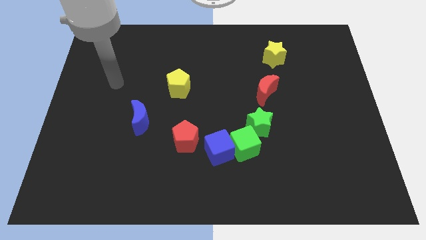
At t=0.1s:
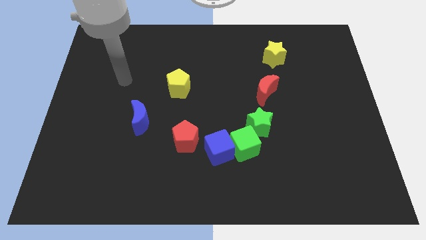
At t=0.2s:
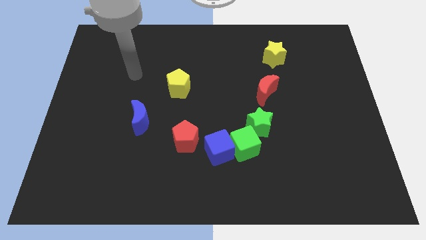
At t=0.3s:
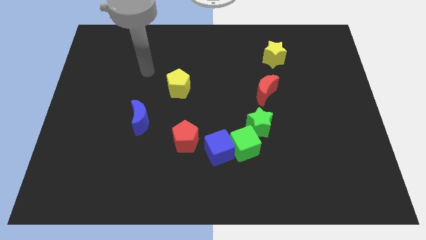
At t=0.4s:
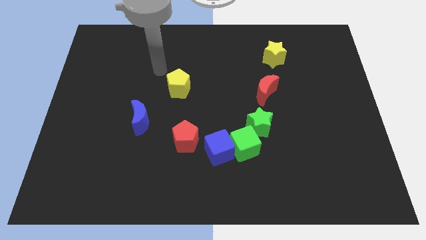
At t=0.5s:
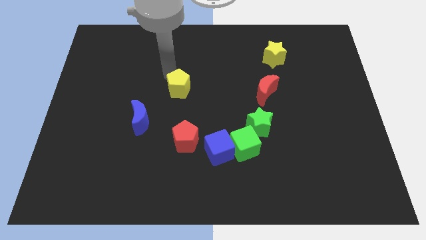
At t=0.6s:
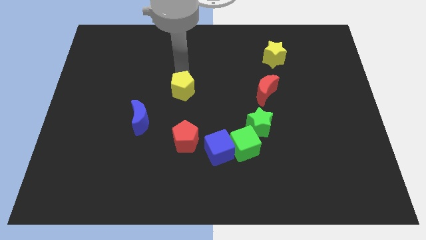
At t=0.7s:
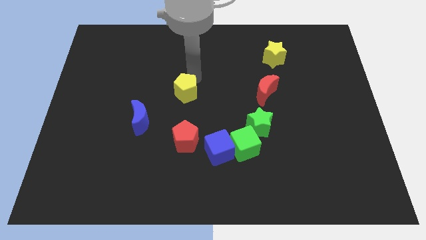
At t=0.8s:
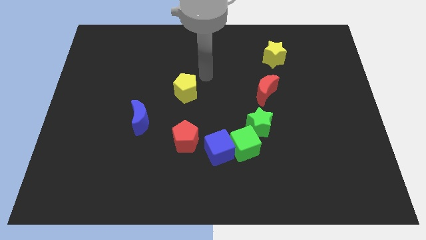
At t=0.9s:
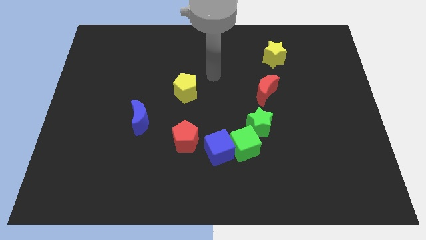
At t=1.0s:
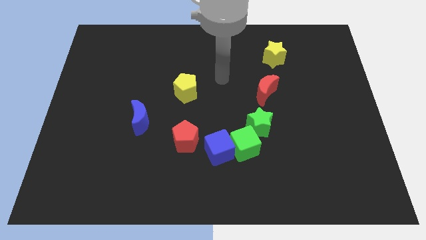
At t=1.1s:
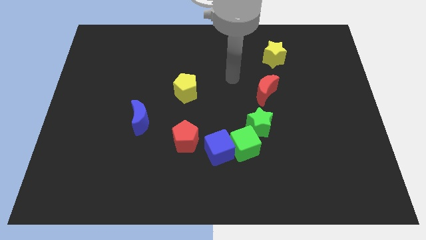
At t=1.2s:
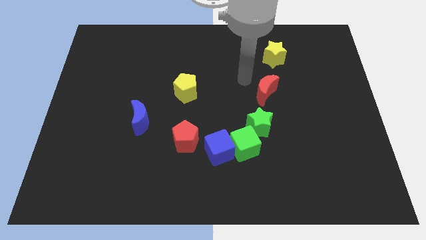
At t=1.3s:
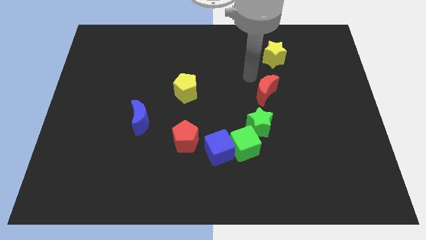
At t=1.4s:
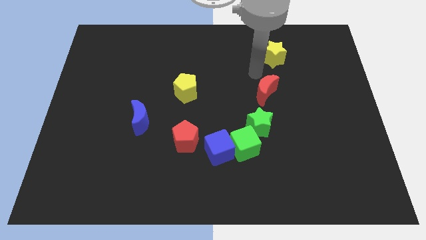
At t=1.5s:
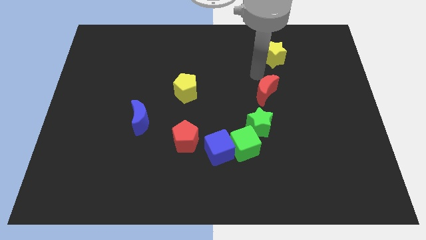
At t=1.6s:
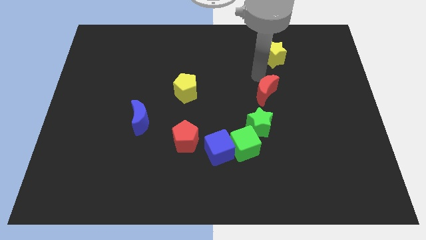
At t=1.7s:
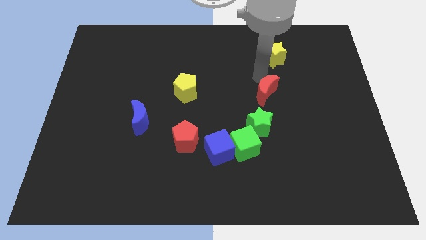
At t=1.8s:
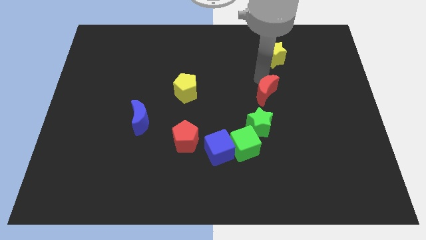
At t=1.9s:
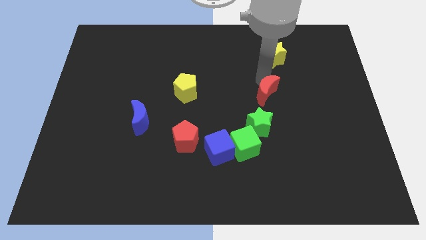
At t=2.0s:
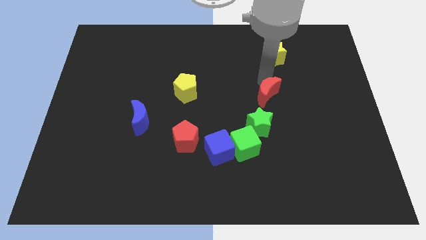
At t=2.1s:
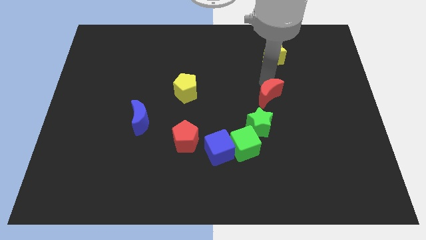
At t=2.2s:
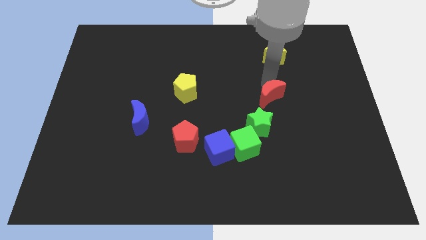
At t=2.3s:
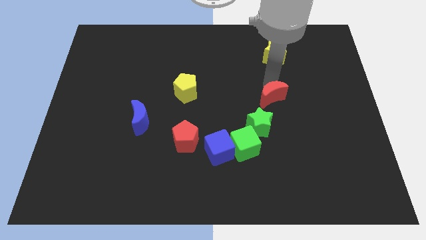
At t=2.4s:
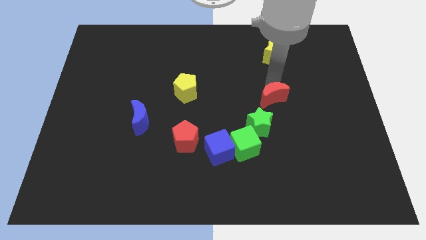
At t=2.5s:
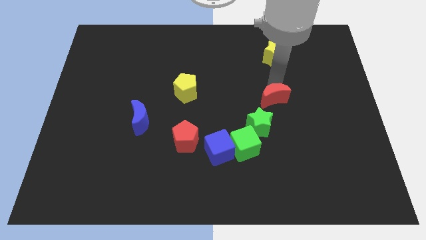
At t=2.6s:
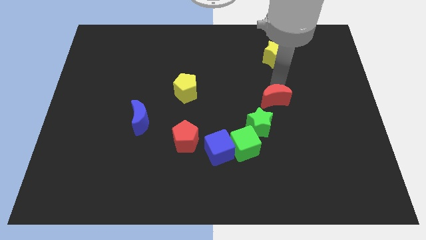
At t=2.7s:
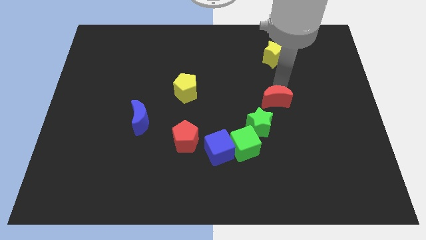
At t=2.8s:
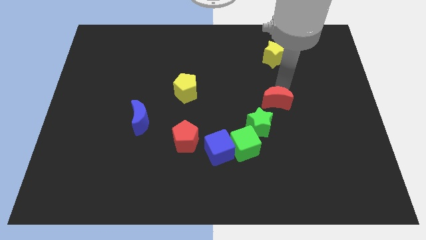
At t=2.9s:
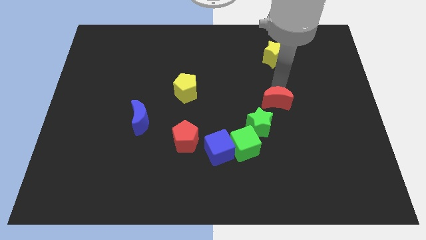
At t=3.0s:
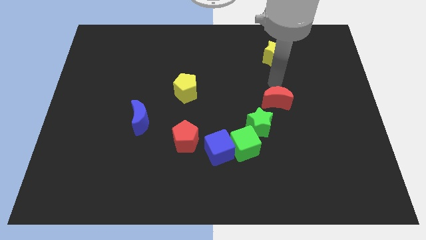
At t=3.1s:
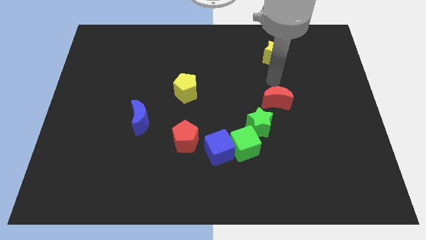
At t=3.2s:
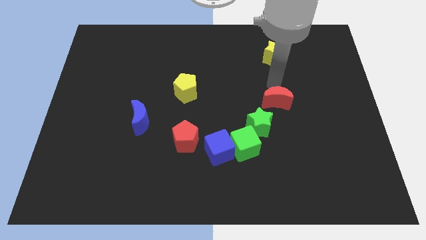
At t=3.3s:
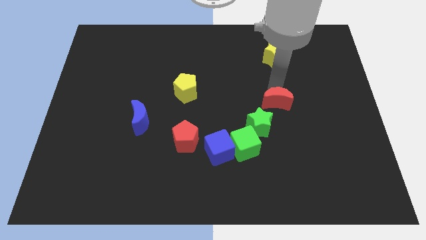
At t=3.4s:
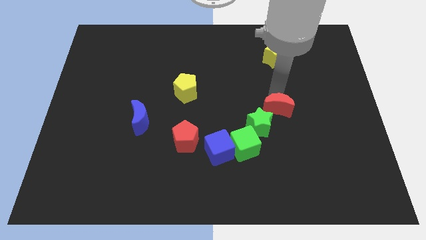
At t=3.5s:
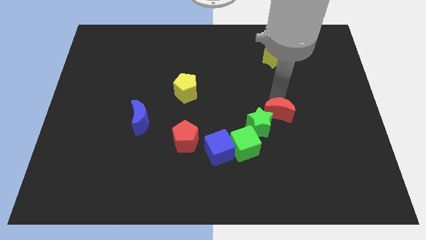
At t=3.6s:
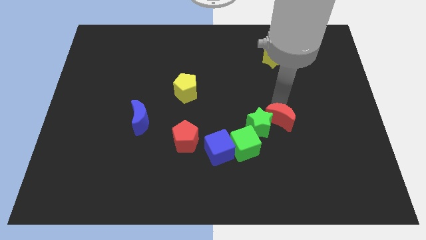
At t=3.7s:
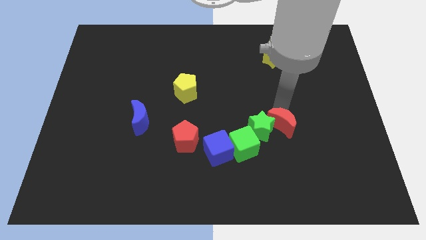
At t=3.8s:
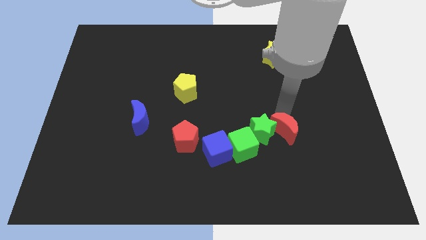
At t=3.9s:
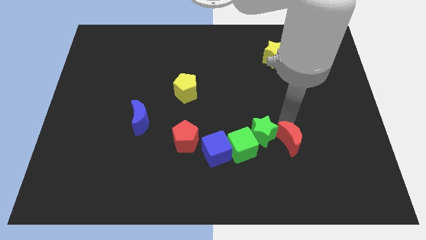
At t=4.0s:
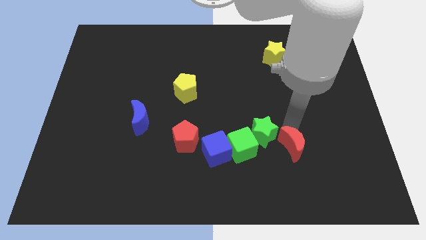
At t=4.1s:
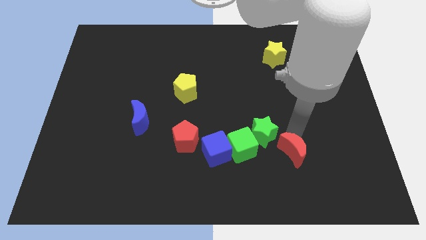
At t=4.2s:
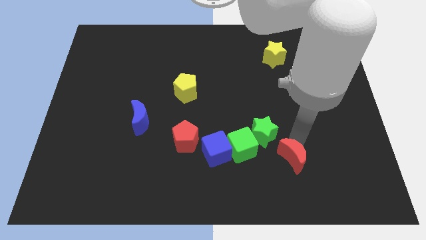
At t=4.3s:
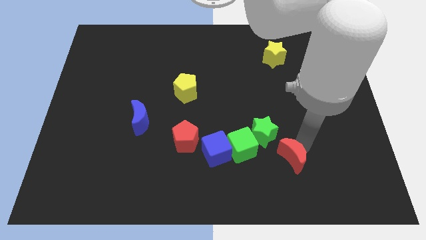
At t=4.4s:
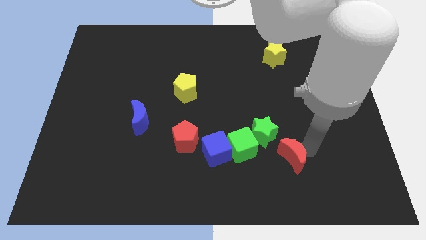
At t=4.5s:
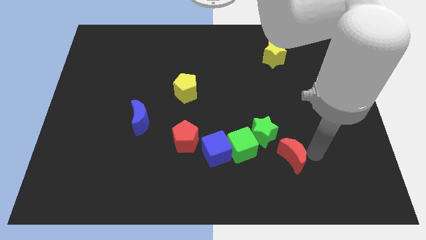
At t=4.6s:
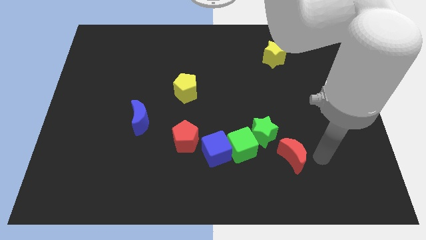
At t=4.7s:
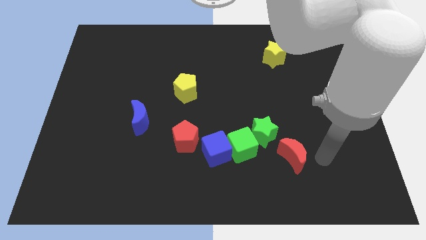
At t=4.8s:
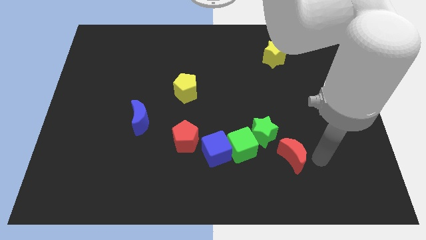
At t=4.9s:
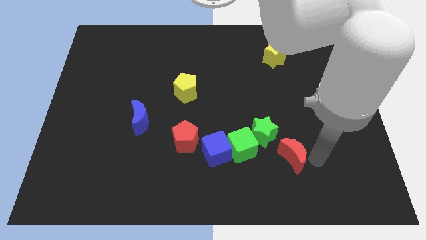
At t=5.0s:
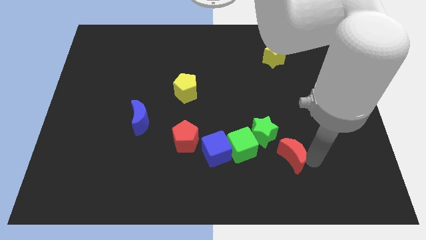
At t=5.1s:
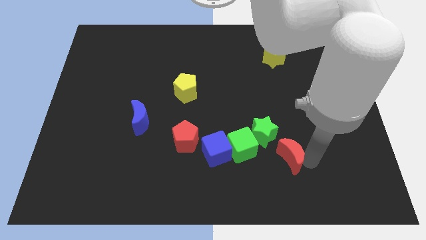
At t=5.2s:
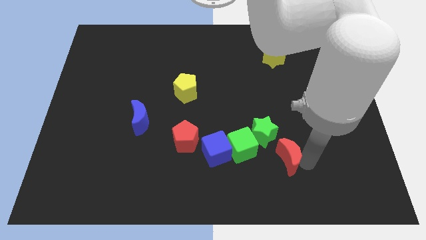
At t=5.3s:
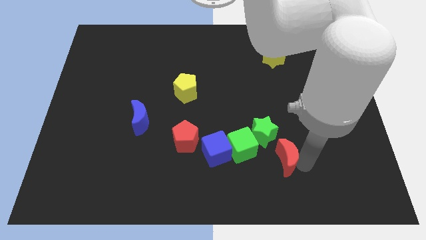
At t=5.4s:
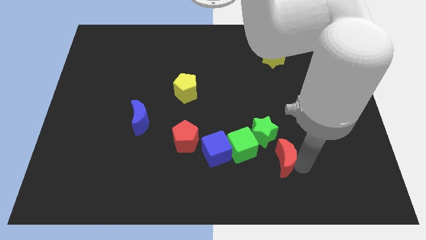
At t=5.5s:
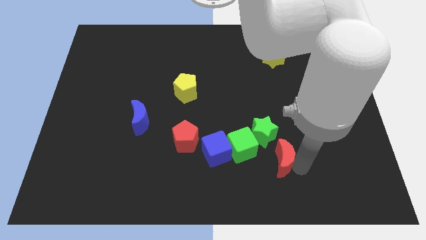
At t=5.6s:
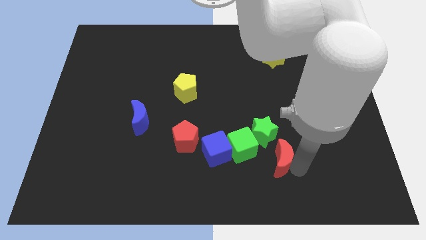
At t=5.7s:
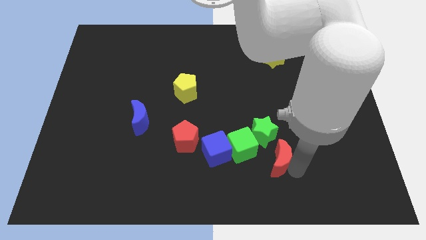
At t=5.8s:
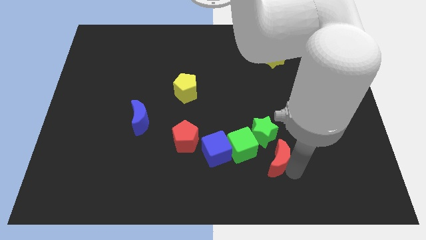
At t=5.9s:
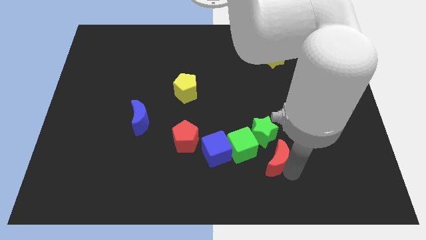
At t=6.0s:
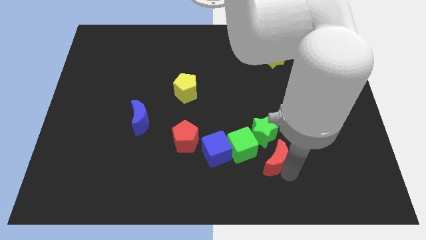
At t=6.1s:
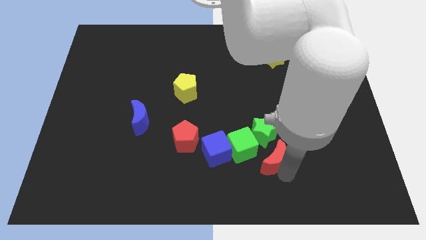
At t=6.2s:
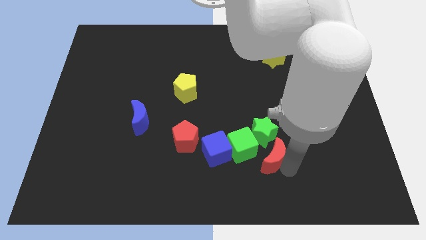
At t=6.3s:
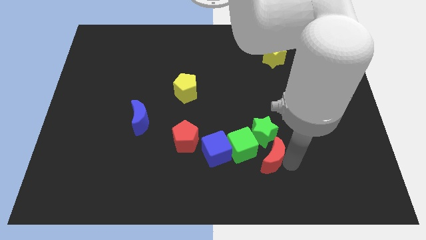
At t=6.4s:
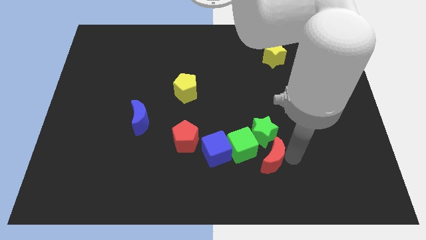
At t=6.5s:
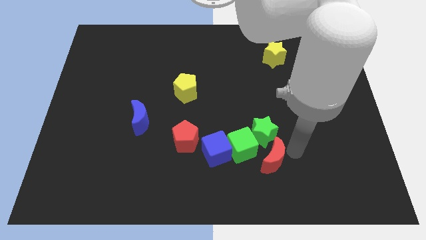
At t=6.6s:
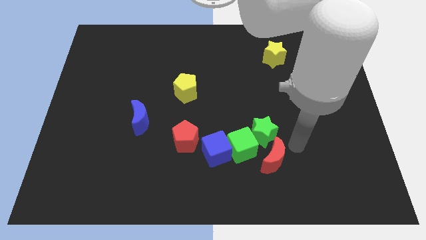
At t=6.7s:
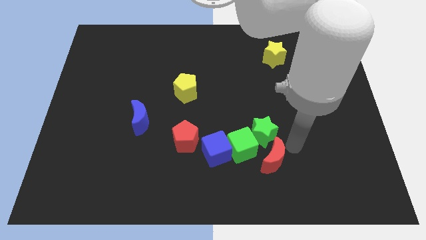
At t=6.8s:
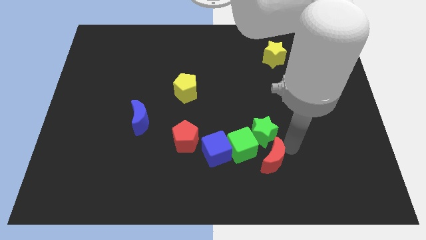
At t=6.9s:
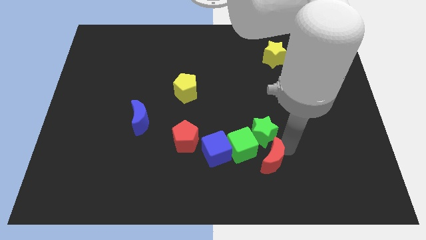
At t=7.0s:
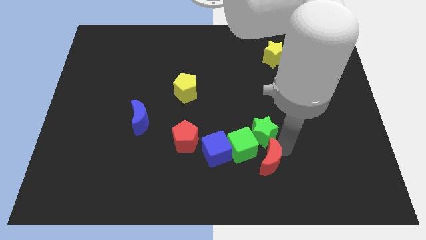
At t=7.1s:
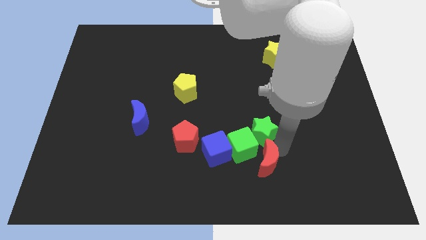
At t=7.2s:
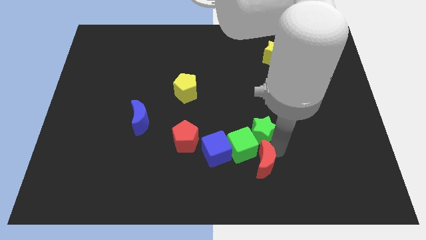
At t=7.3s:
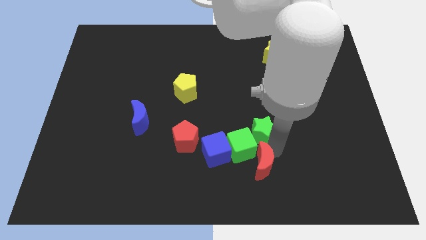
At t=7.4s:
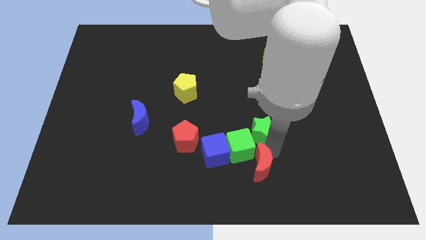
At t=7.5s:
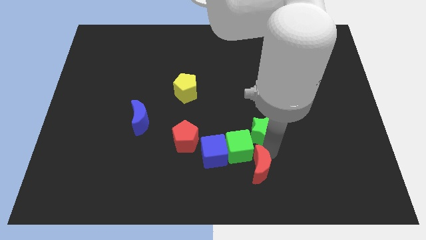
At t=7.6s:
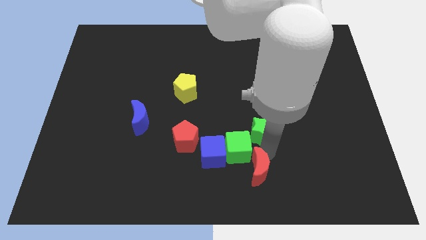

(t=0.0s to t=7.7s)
slide the red moon to the bottom
